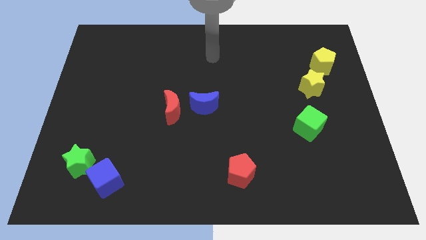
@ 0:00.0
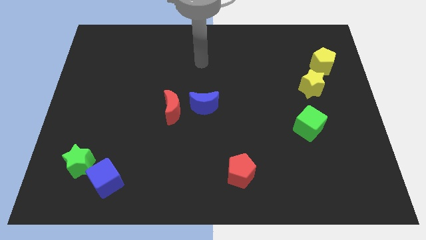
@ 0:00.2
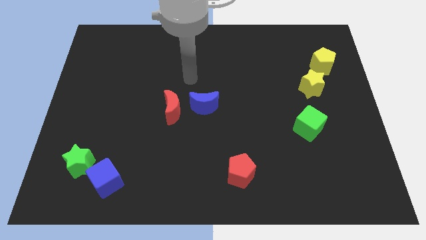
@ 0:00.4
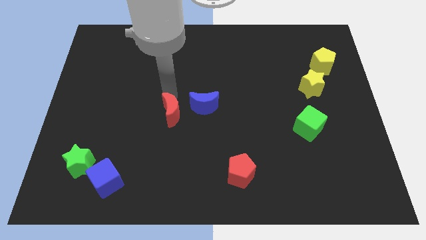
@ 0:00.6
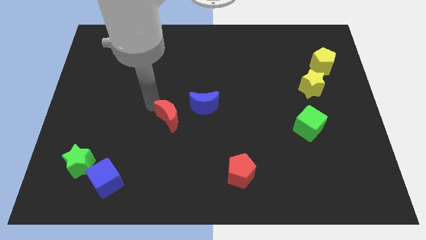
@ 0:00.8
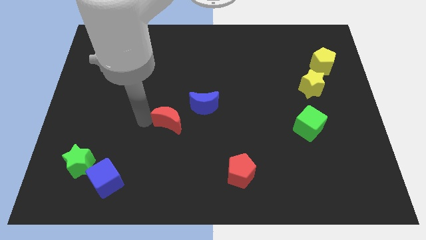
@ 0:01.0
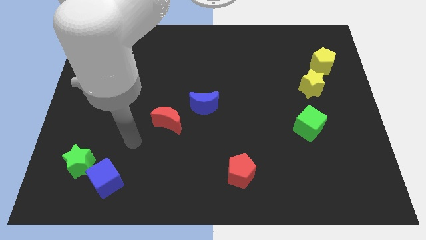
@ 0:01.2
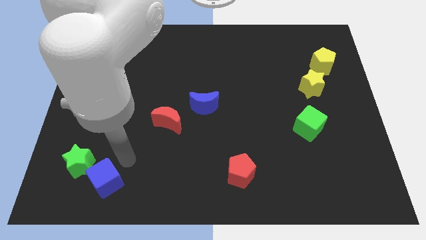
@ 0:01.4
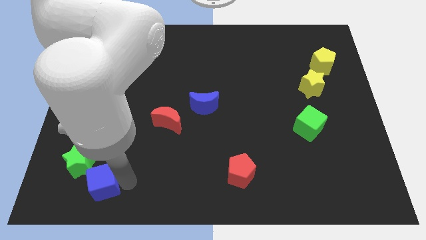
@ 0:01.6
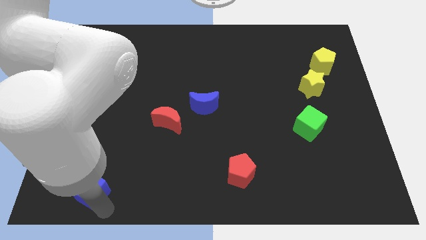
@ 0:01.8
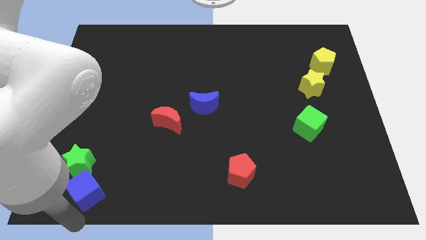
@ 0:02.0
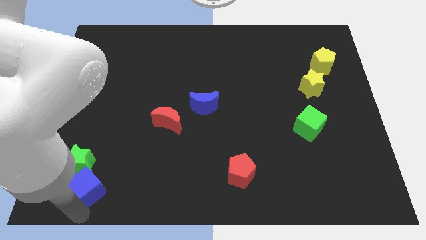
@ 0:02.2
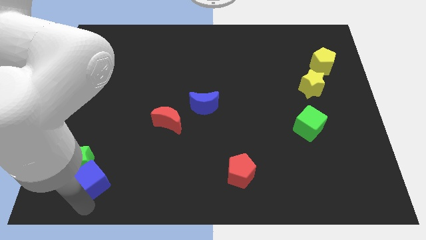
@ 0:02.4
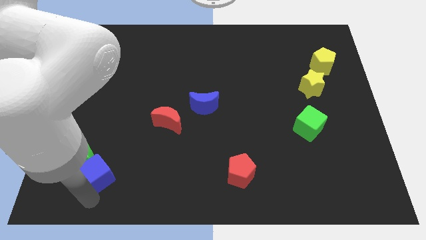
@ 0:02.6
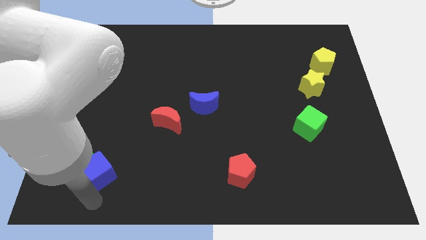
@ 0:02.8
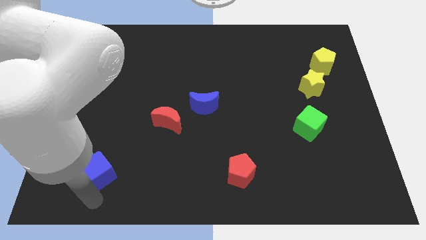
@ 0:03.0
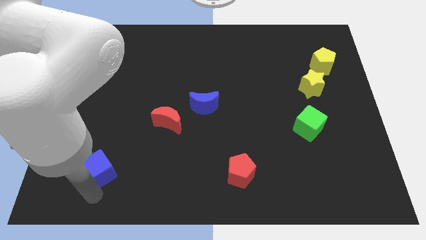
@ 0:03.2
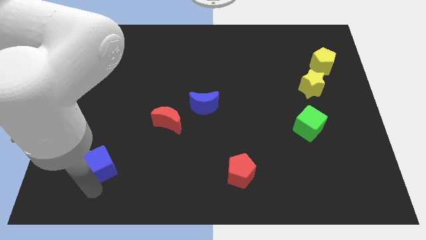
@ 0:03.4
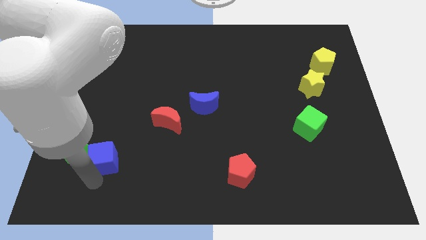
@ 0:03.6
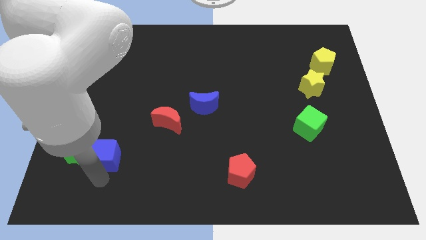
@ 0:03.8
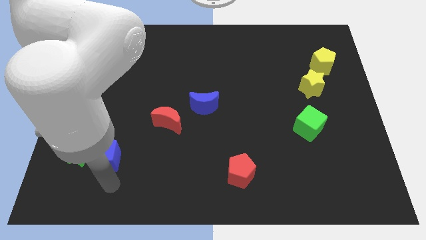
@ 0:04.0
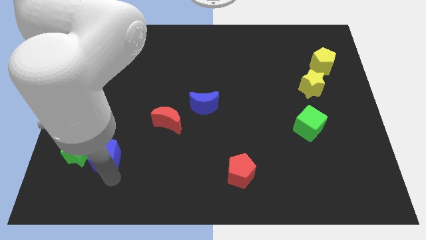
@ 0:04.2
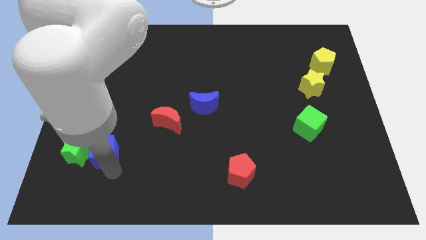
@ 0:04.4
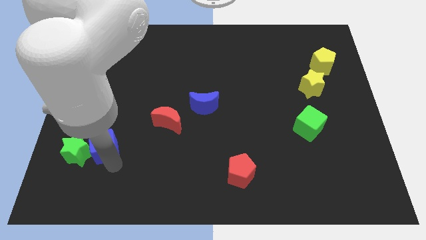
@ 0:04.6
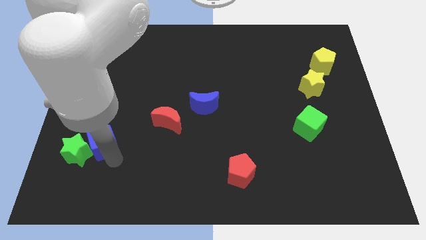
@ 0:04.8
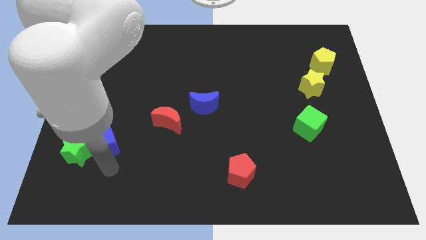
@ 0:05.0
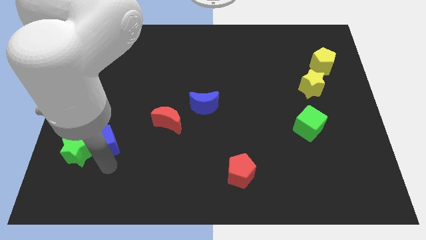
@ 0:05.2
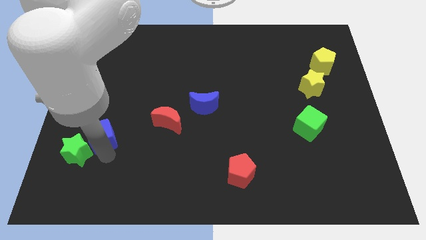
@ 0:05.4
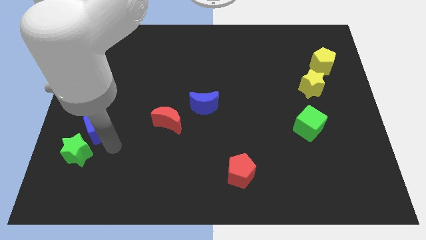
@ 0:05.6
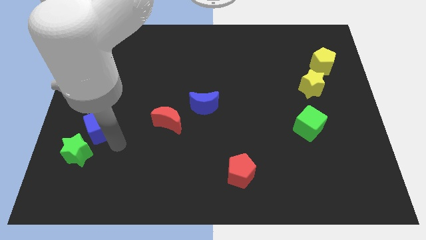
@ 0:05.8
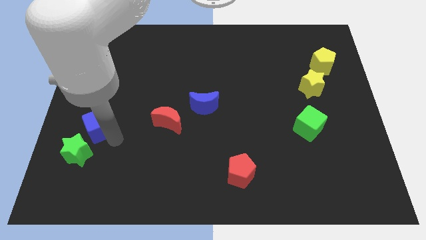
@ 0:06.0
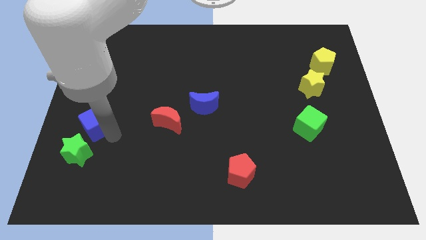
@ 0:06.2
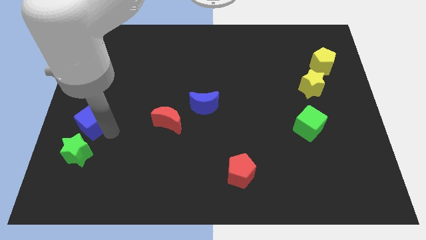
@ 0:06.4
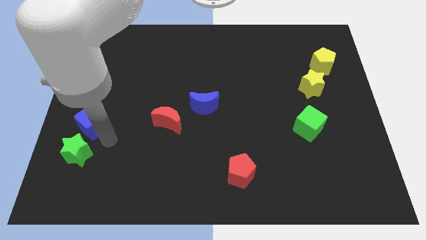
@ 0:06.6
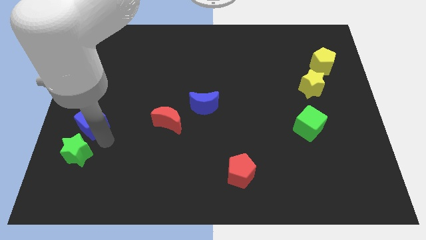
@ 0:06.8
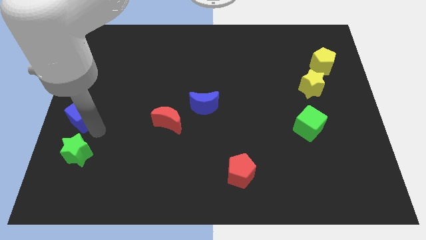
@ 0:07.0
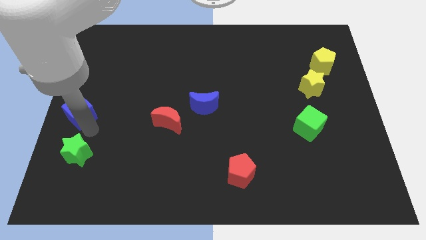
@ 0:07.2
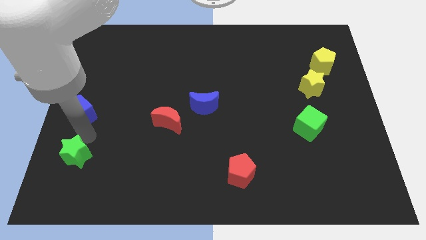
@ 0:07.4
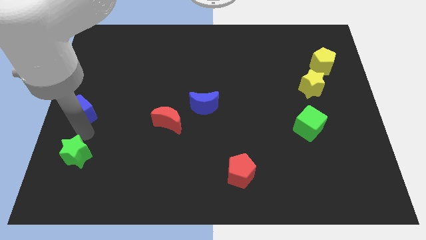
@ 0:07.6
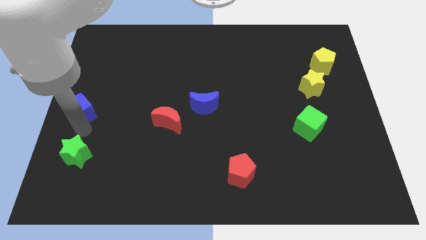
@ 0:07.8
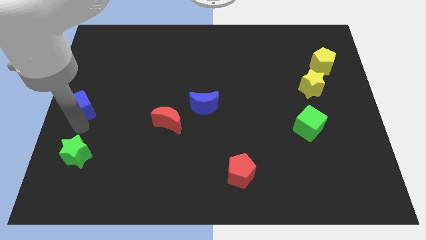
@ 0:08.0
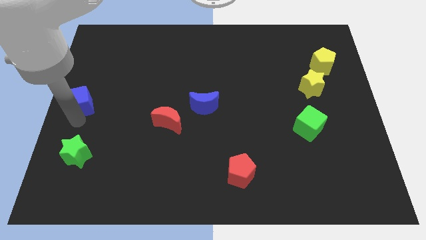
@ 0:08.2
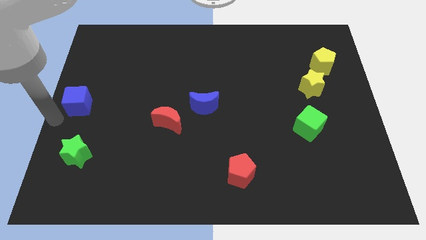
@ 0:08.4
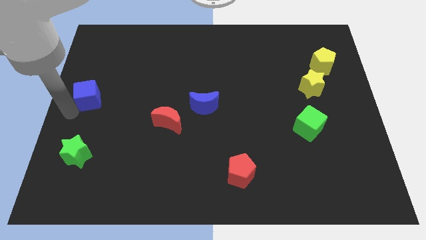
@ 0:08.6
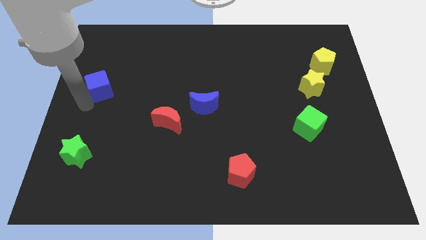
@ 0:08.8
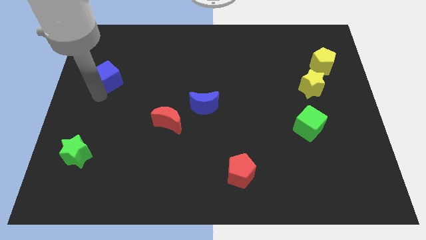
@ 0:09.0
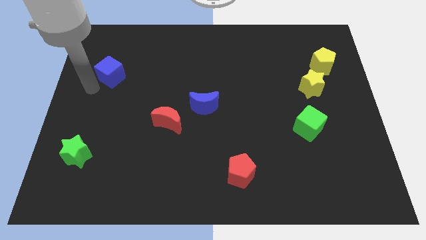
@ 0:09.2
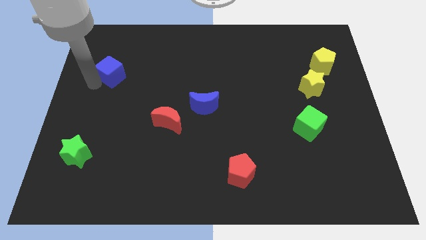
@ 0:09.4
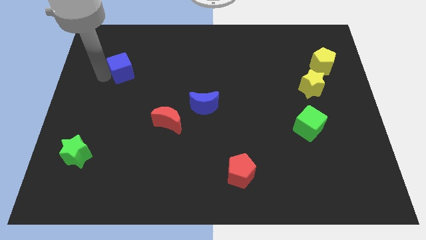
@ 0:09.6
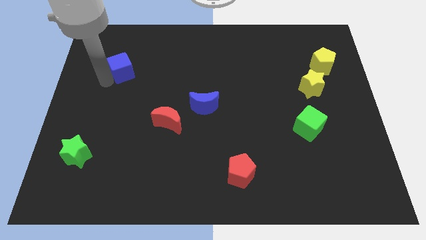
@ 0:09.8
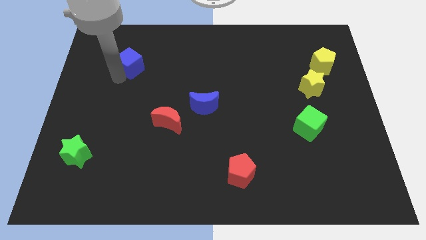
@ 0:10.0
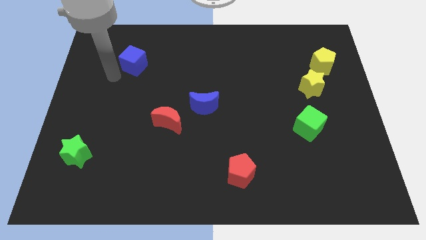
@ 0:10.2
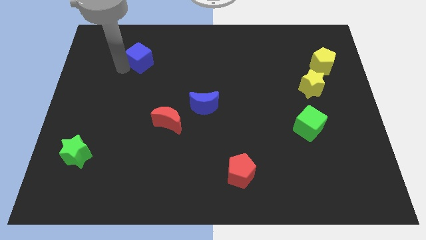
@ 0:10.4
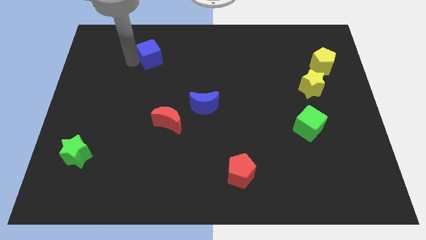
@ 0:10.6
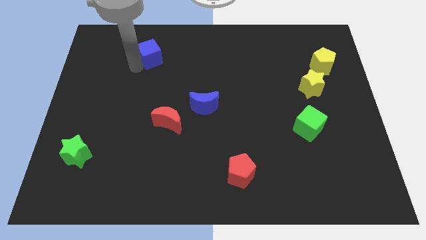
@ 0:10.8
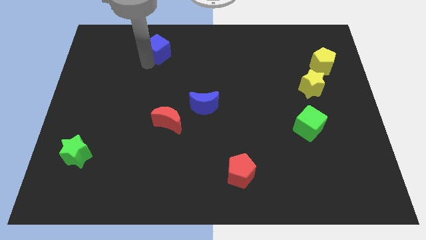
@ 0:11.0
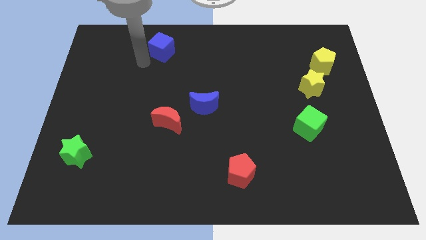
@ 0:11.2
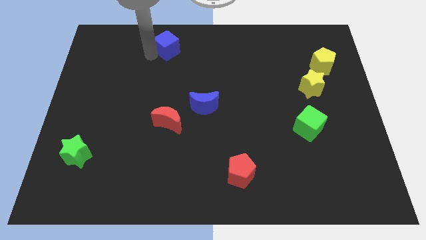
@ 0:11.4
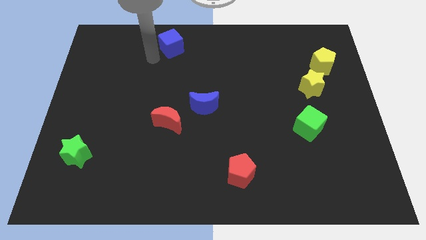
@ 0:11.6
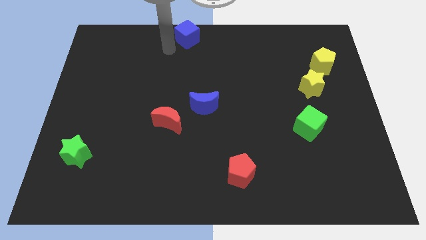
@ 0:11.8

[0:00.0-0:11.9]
move the blue cube to the top side

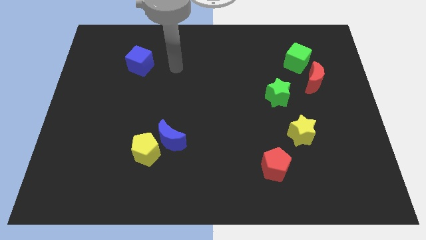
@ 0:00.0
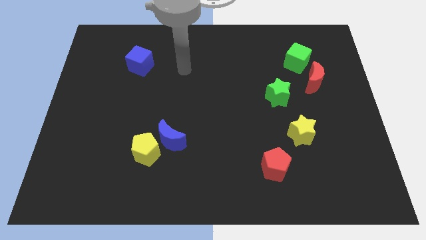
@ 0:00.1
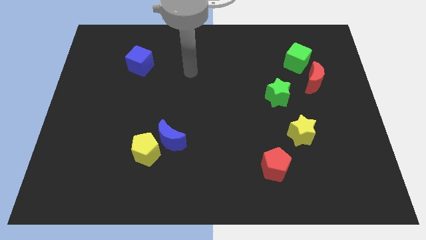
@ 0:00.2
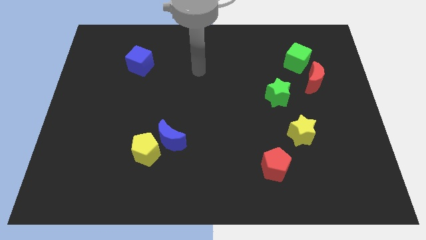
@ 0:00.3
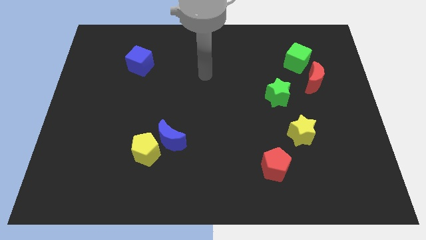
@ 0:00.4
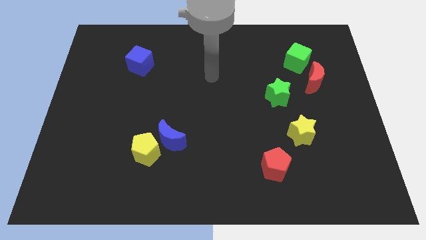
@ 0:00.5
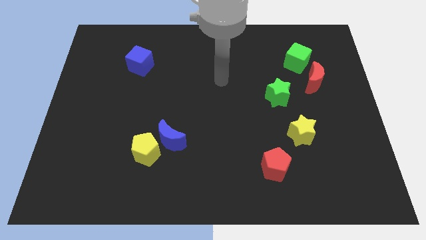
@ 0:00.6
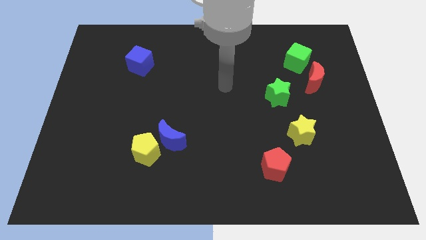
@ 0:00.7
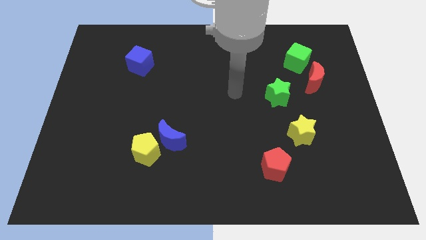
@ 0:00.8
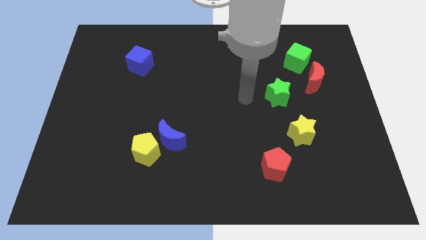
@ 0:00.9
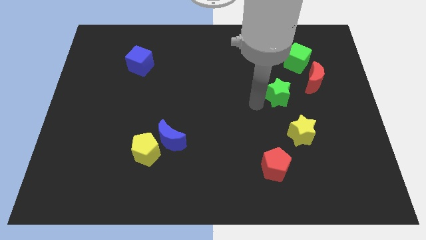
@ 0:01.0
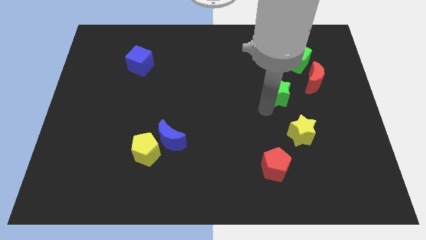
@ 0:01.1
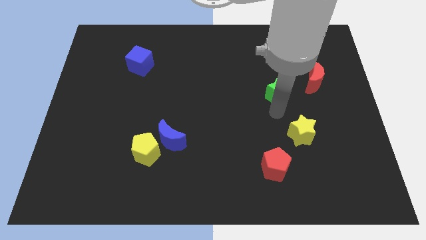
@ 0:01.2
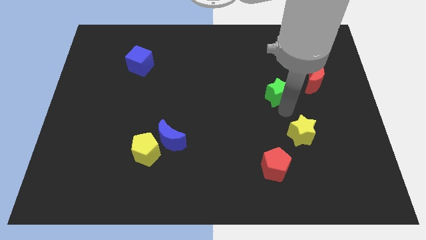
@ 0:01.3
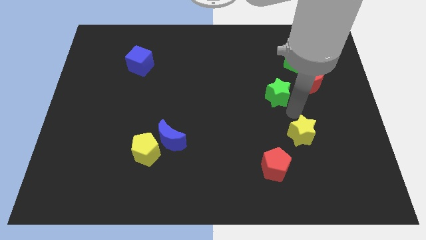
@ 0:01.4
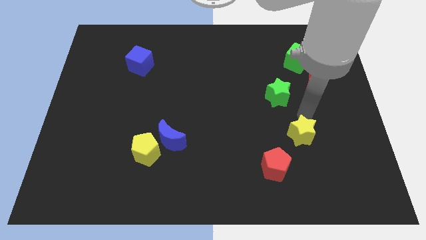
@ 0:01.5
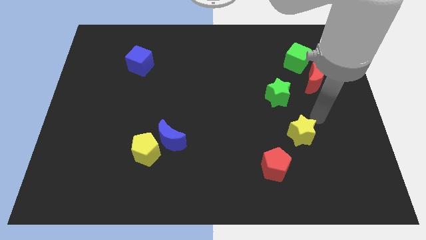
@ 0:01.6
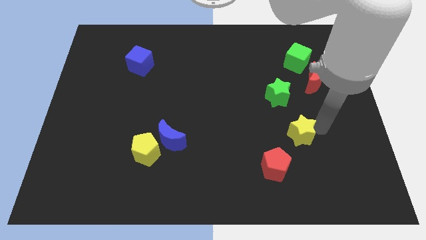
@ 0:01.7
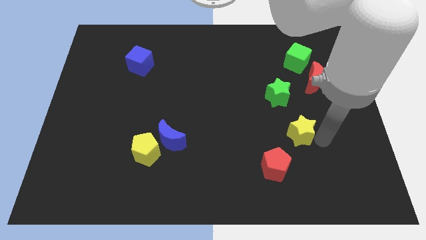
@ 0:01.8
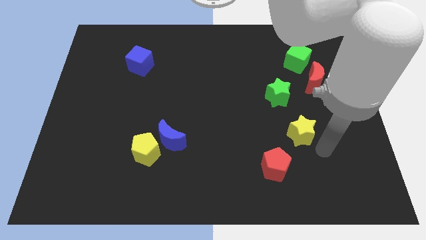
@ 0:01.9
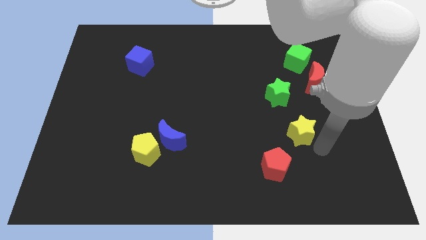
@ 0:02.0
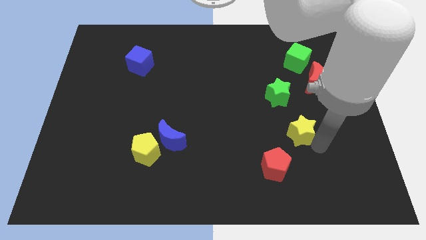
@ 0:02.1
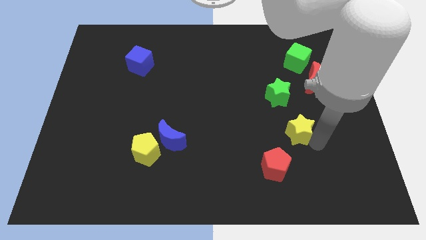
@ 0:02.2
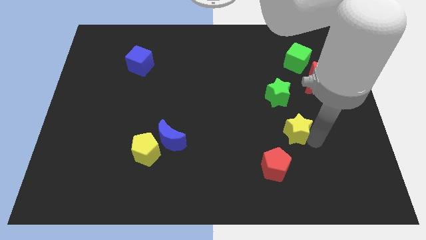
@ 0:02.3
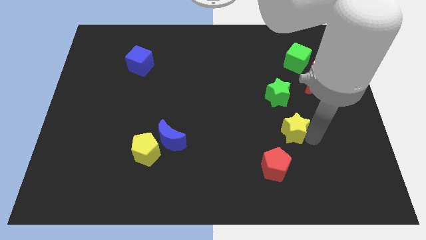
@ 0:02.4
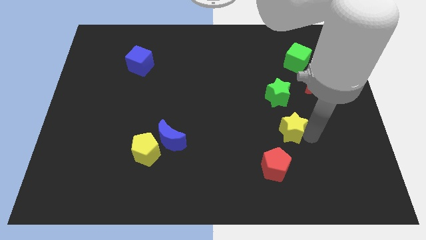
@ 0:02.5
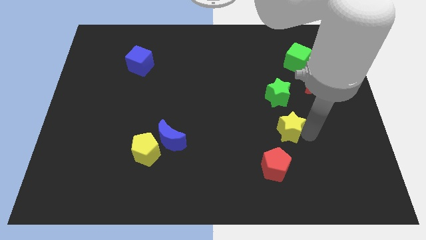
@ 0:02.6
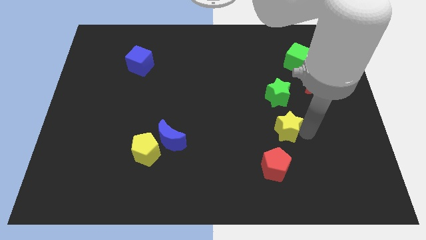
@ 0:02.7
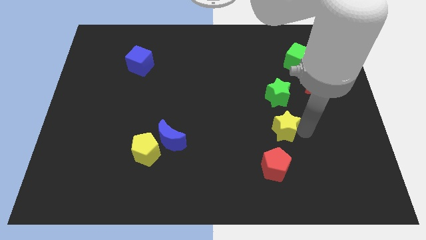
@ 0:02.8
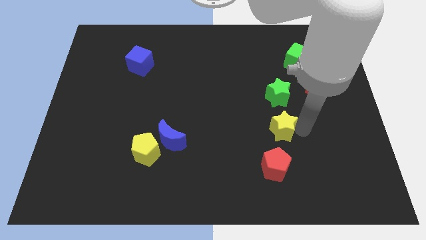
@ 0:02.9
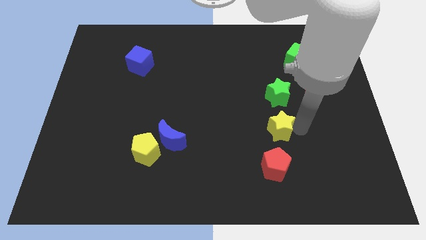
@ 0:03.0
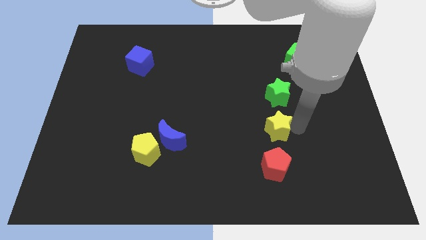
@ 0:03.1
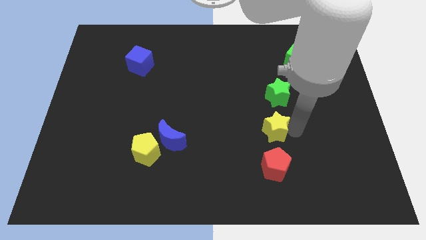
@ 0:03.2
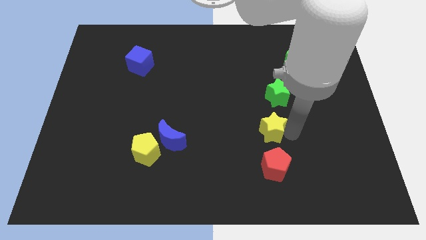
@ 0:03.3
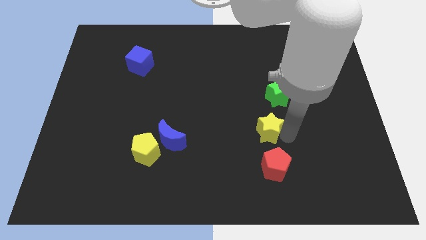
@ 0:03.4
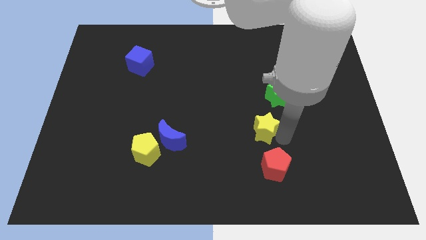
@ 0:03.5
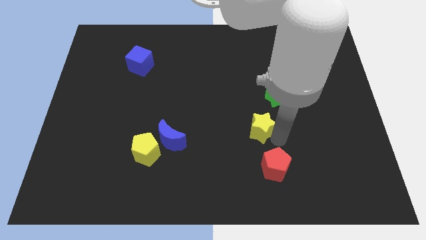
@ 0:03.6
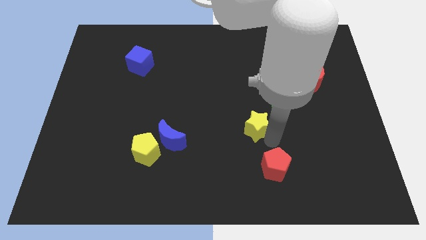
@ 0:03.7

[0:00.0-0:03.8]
push the yellow star to the middle of the board
